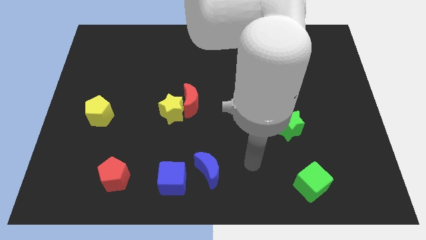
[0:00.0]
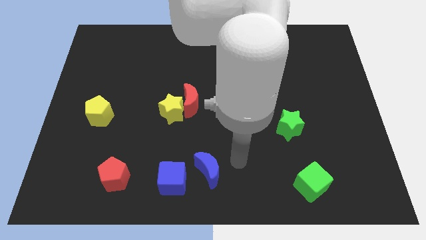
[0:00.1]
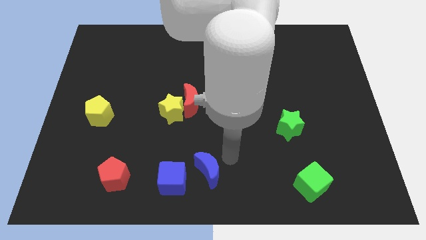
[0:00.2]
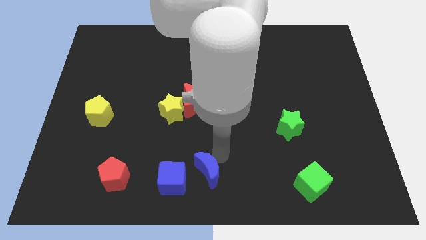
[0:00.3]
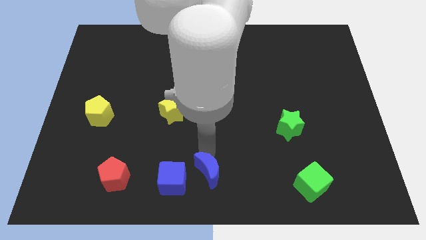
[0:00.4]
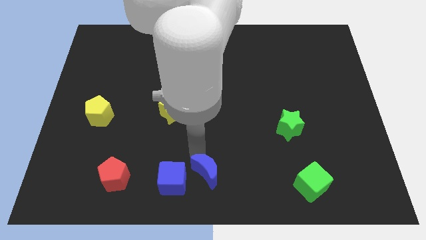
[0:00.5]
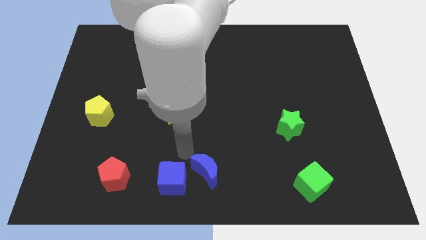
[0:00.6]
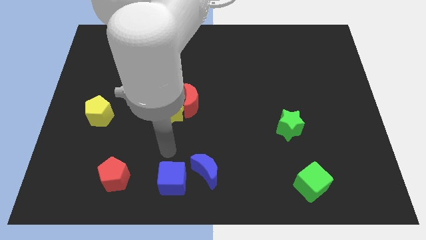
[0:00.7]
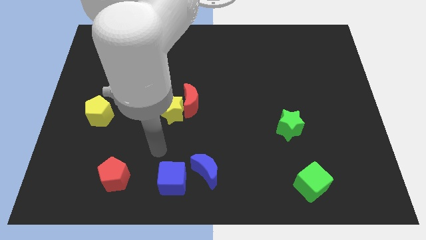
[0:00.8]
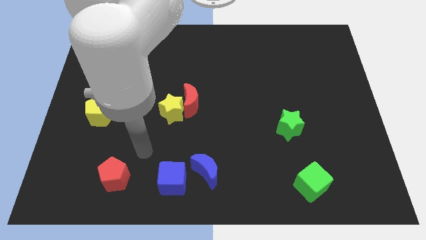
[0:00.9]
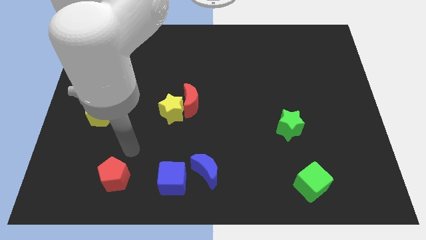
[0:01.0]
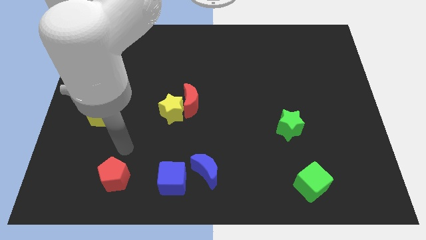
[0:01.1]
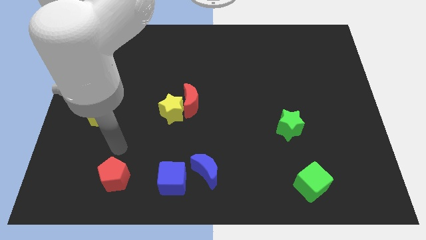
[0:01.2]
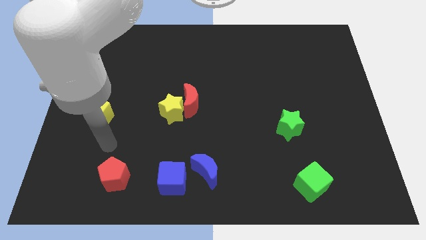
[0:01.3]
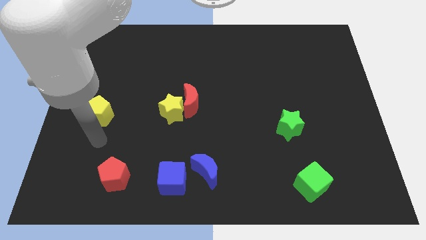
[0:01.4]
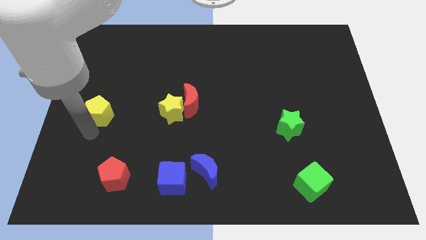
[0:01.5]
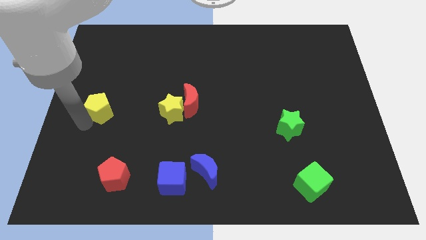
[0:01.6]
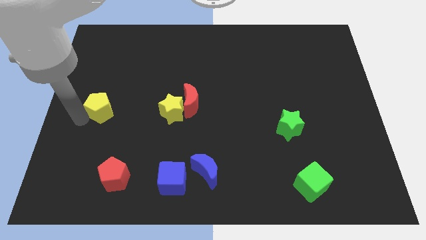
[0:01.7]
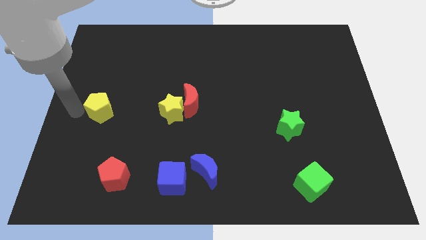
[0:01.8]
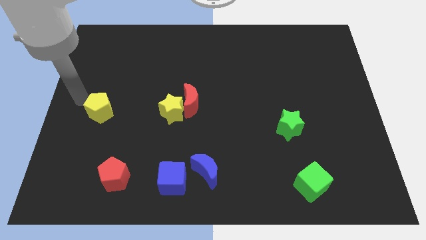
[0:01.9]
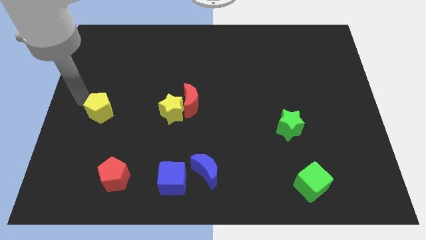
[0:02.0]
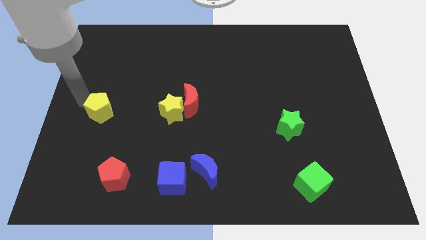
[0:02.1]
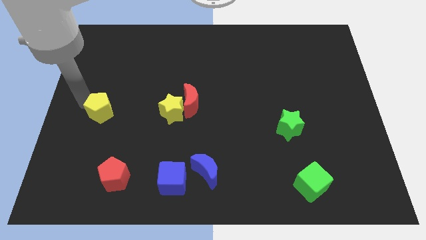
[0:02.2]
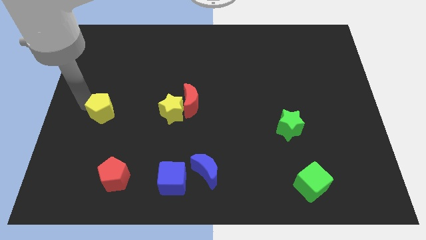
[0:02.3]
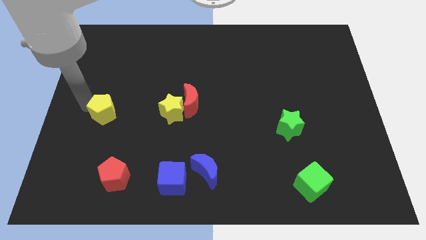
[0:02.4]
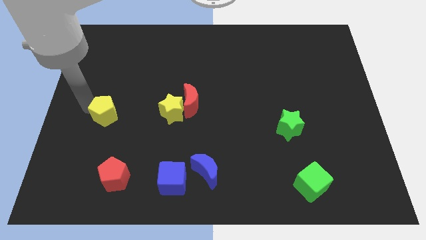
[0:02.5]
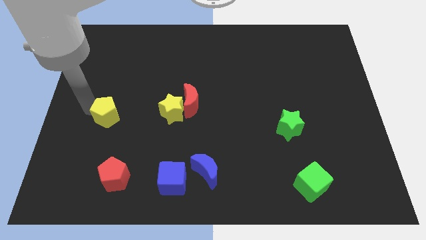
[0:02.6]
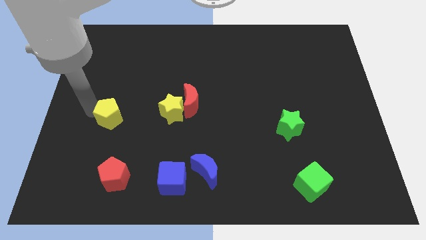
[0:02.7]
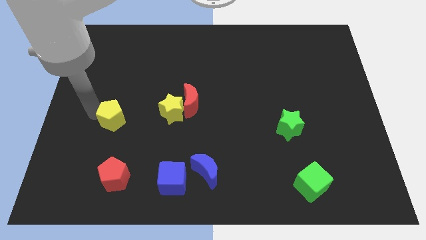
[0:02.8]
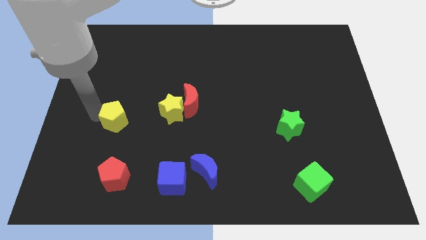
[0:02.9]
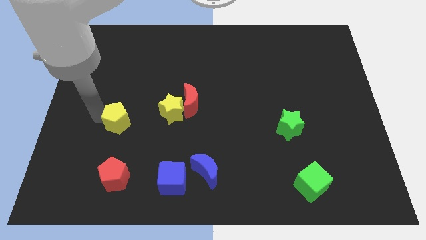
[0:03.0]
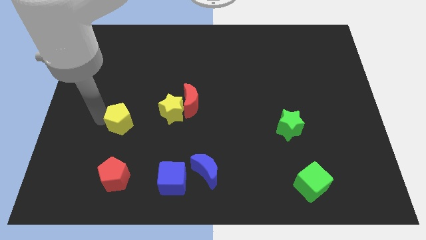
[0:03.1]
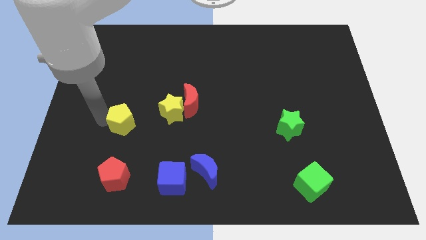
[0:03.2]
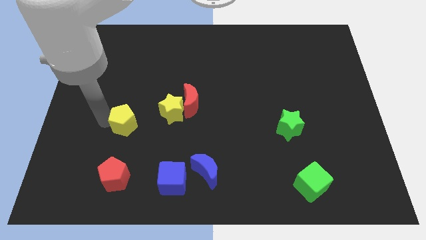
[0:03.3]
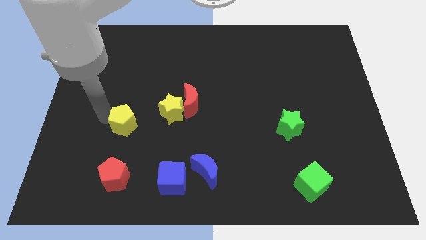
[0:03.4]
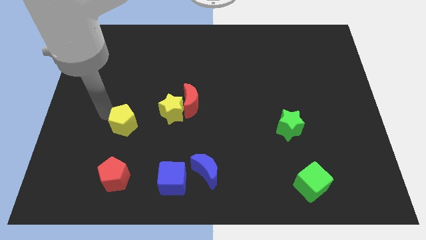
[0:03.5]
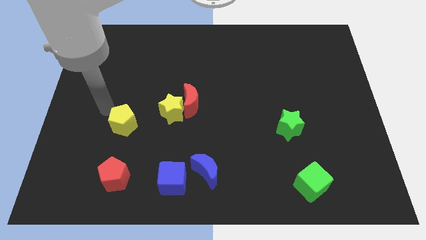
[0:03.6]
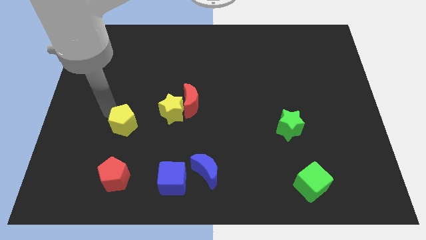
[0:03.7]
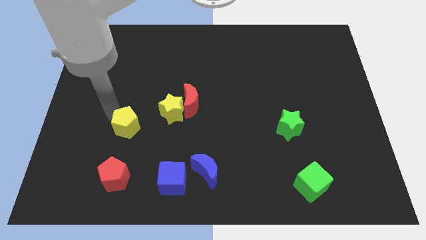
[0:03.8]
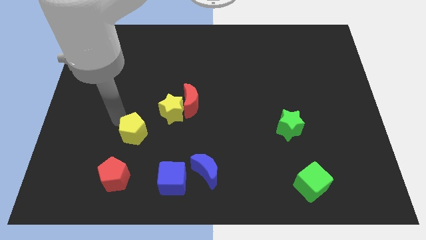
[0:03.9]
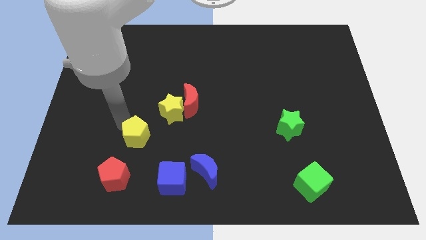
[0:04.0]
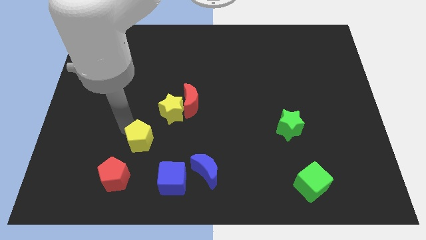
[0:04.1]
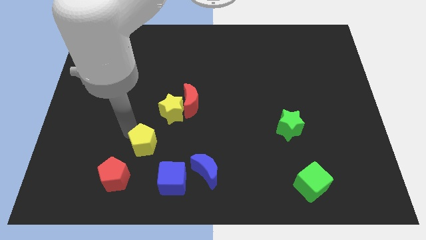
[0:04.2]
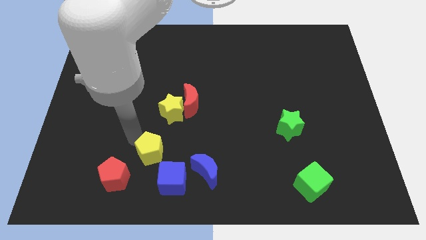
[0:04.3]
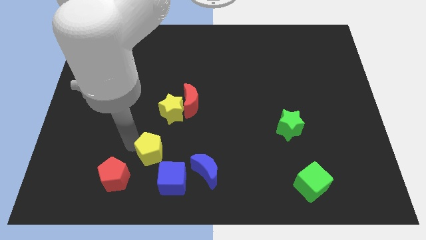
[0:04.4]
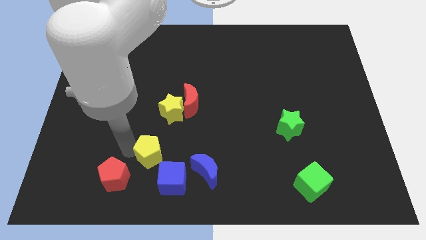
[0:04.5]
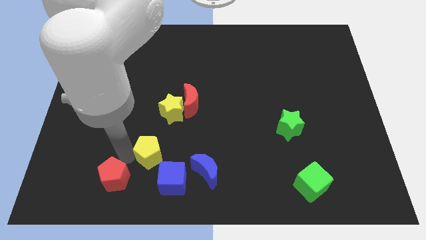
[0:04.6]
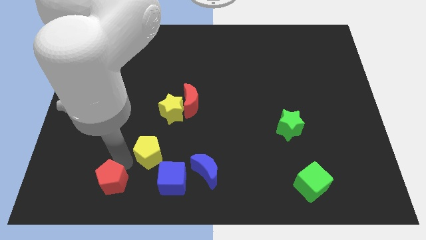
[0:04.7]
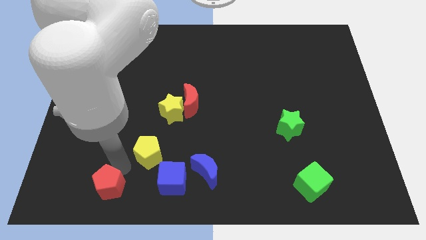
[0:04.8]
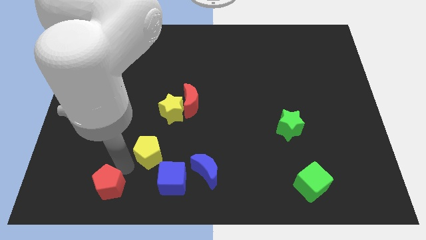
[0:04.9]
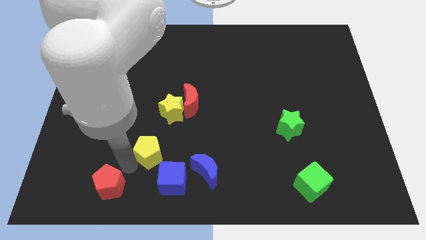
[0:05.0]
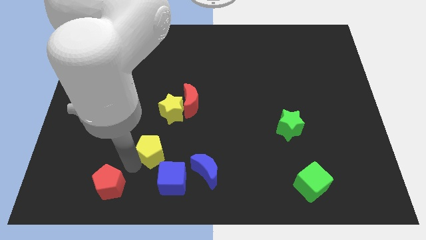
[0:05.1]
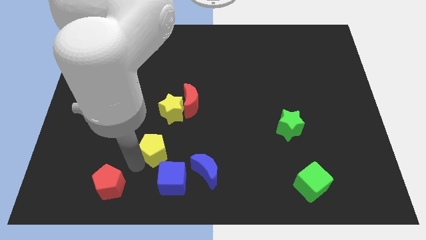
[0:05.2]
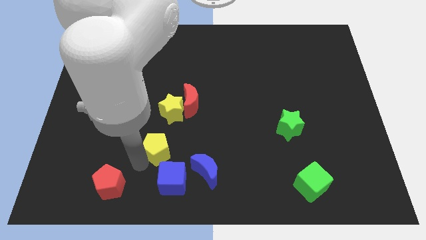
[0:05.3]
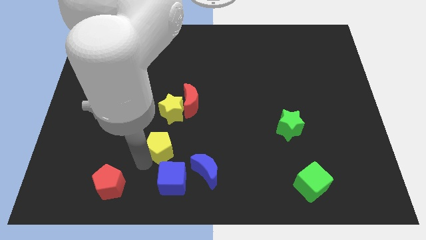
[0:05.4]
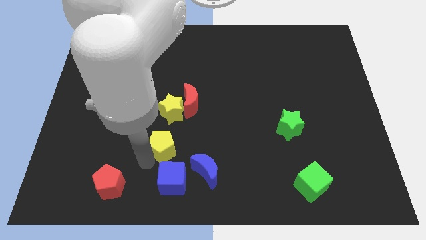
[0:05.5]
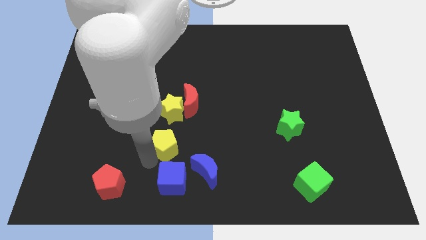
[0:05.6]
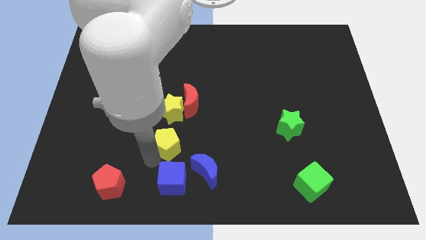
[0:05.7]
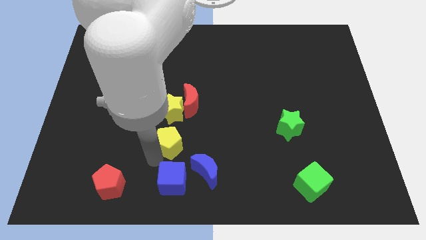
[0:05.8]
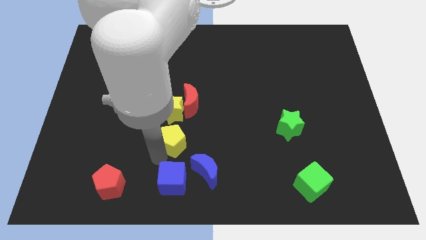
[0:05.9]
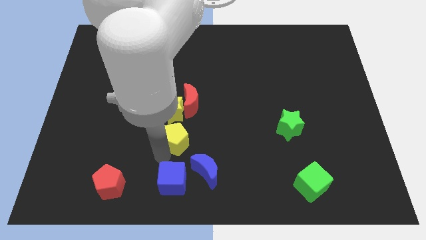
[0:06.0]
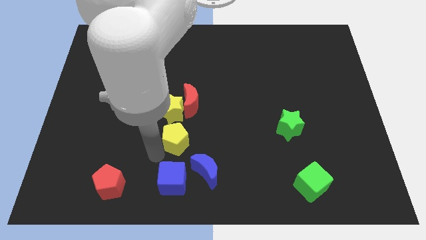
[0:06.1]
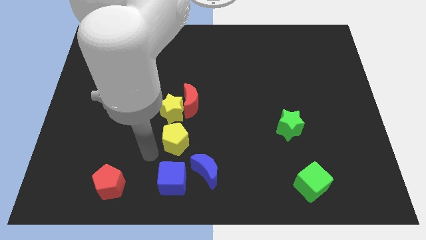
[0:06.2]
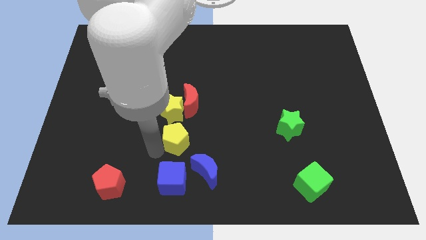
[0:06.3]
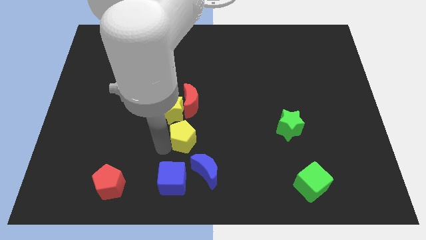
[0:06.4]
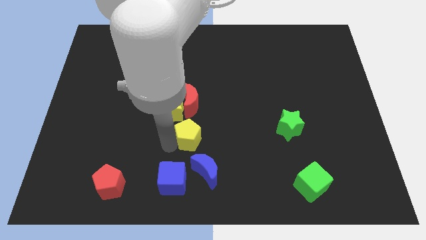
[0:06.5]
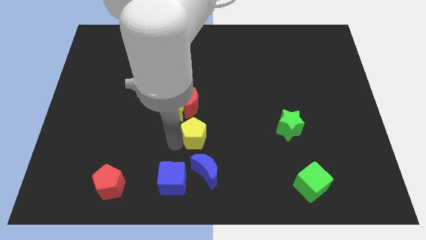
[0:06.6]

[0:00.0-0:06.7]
slide the yellow pentagon to the right

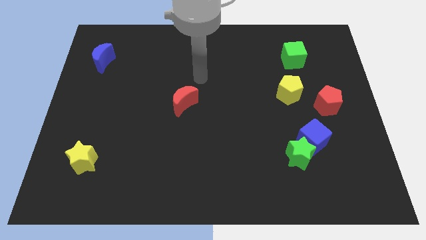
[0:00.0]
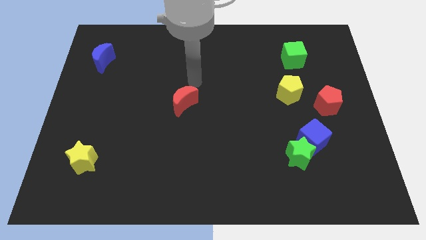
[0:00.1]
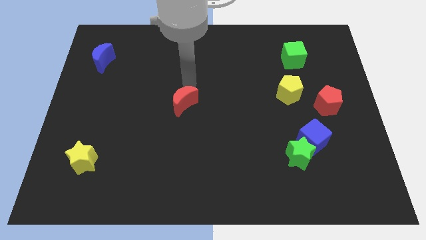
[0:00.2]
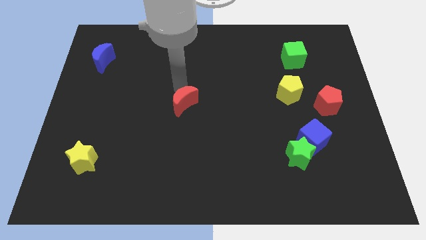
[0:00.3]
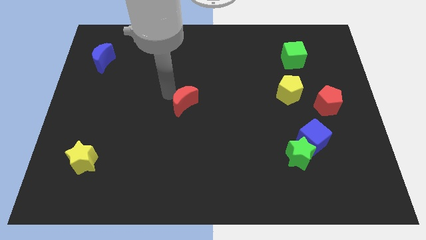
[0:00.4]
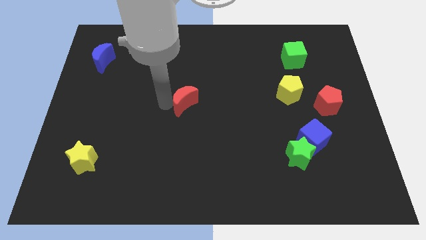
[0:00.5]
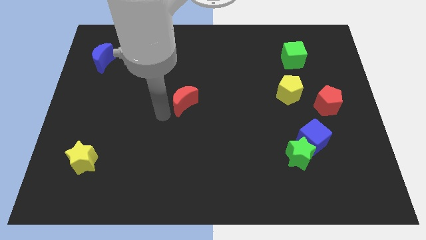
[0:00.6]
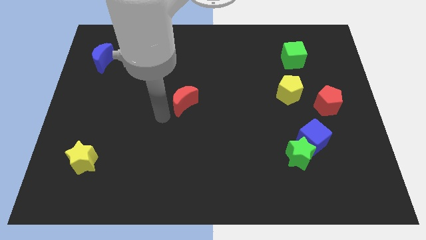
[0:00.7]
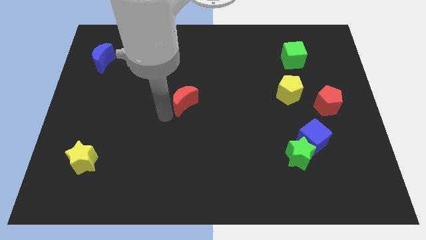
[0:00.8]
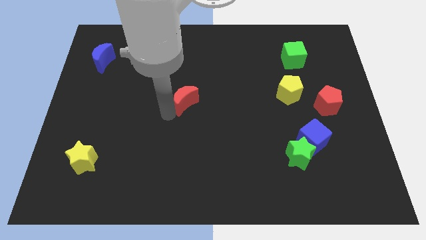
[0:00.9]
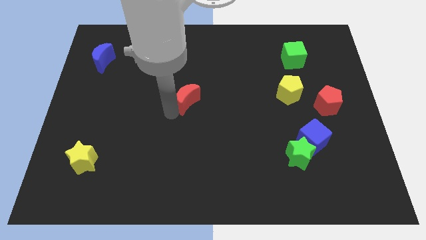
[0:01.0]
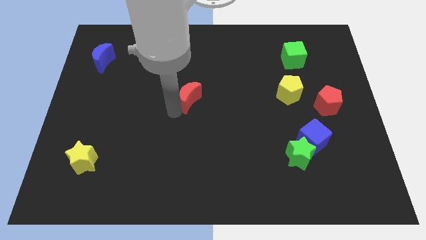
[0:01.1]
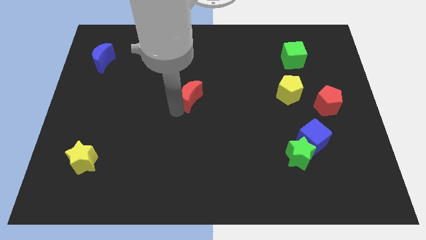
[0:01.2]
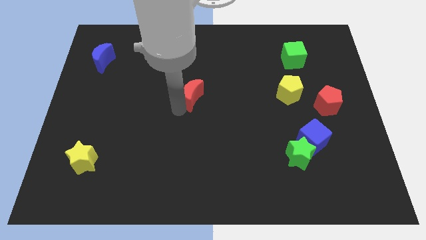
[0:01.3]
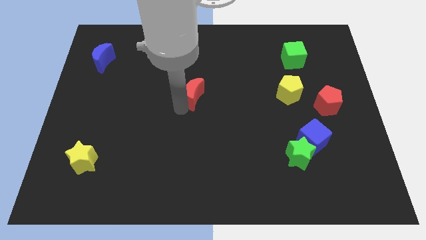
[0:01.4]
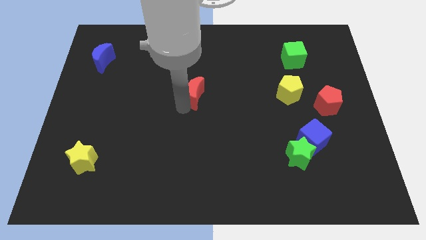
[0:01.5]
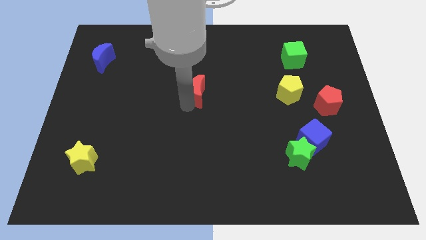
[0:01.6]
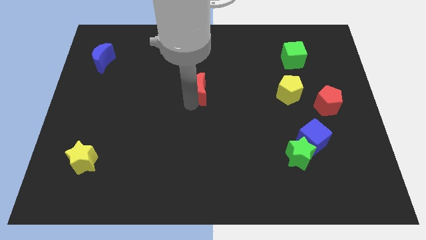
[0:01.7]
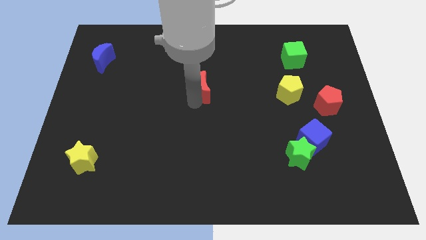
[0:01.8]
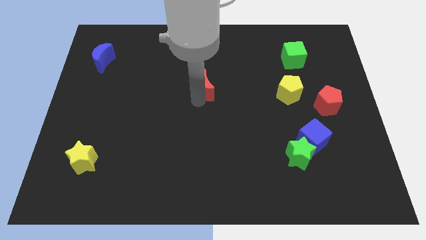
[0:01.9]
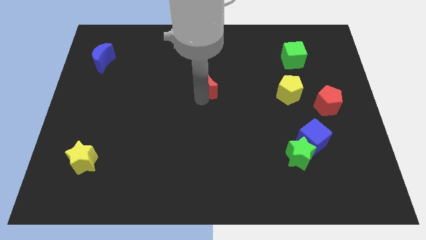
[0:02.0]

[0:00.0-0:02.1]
slide the red moon diagonally up and to the right a little
